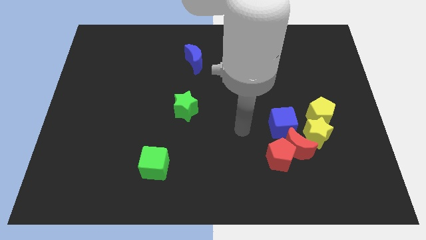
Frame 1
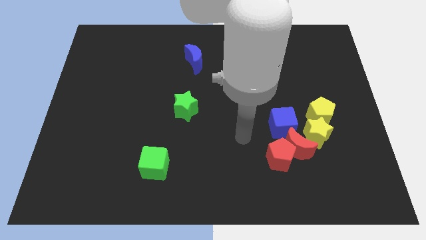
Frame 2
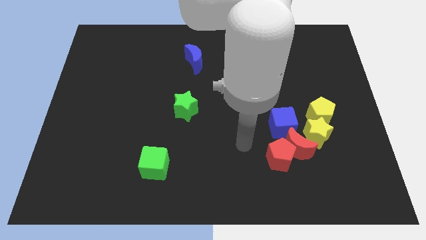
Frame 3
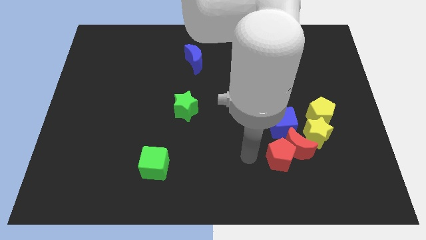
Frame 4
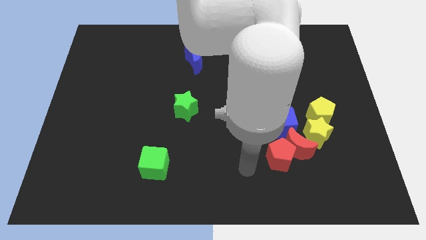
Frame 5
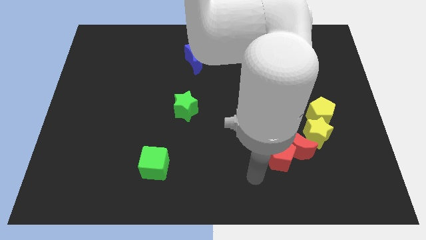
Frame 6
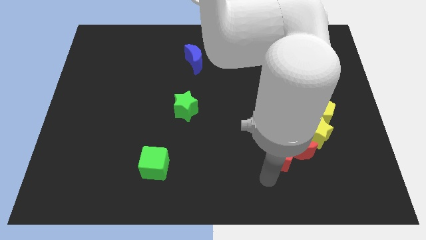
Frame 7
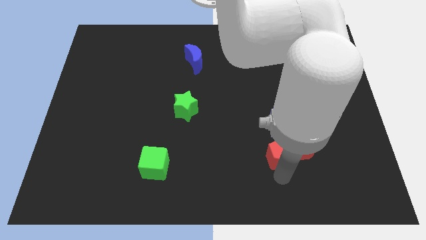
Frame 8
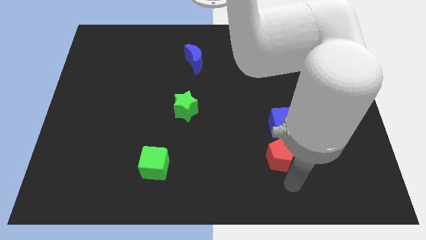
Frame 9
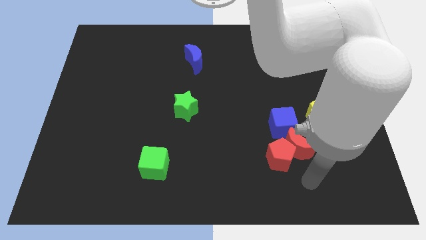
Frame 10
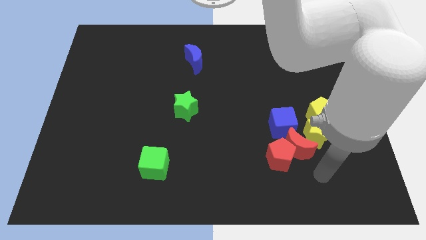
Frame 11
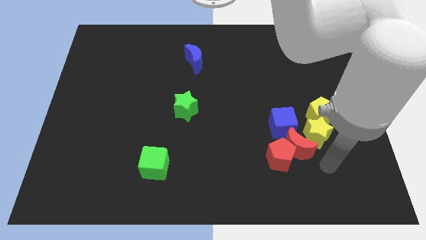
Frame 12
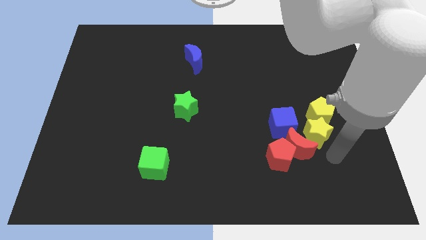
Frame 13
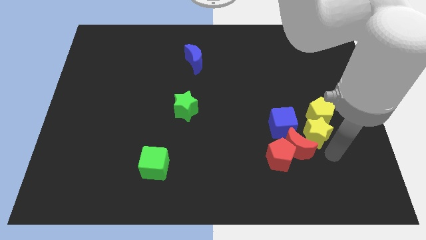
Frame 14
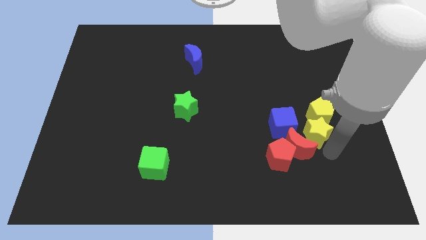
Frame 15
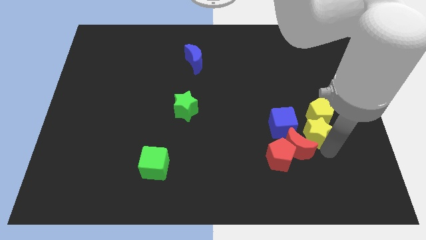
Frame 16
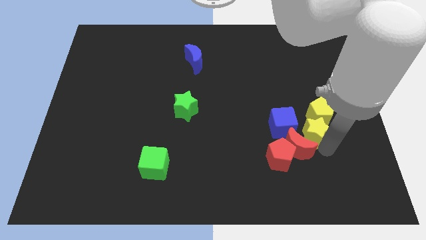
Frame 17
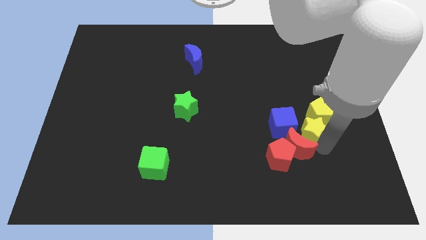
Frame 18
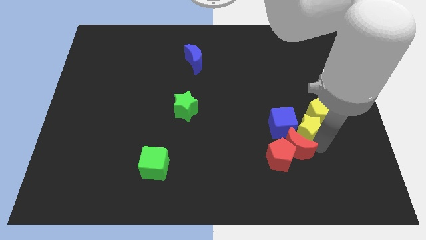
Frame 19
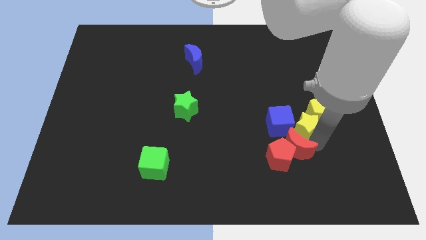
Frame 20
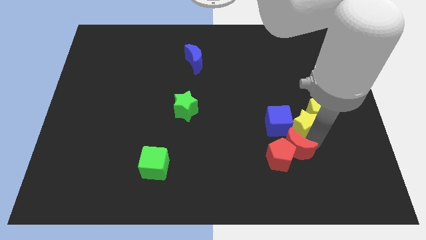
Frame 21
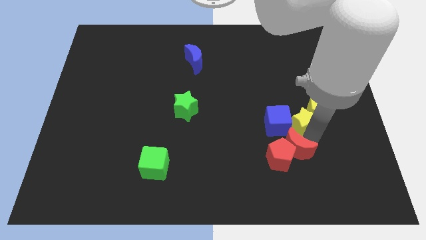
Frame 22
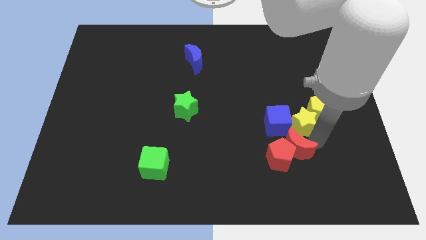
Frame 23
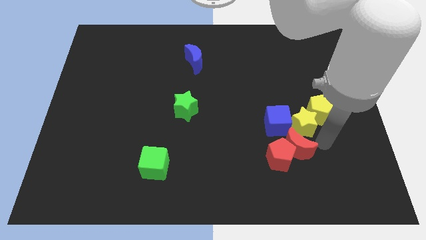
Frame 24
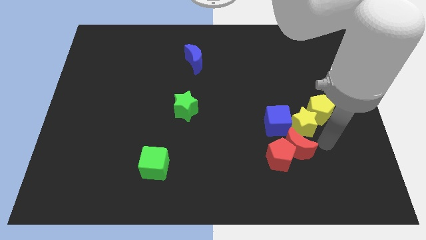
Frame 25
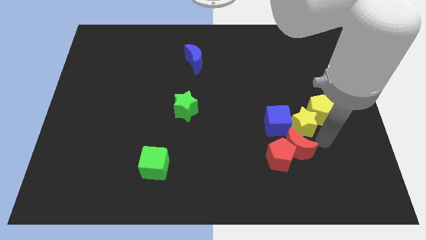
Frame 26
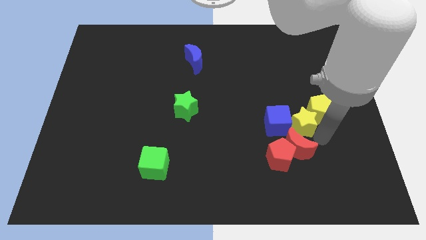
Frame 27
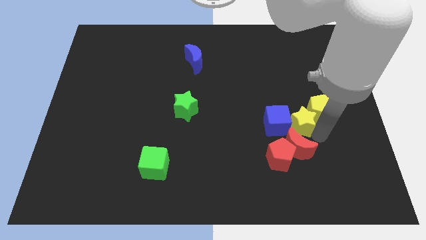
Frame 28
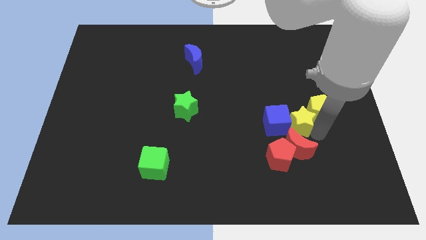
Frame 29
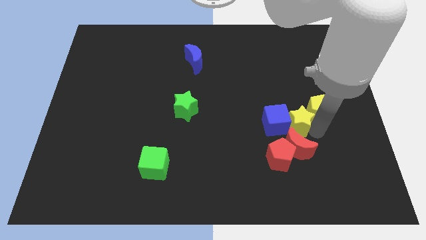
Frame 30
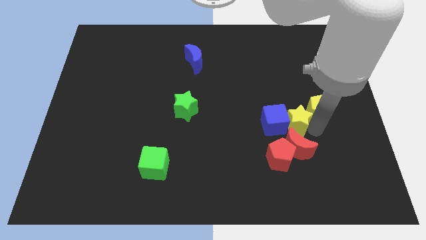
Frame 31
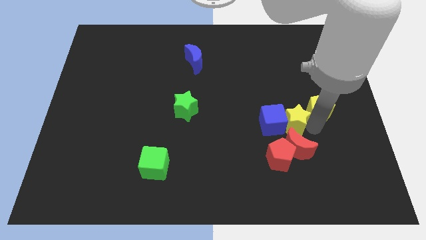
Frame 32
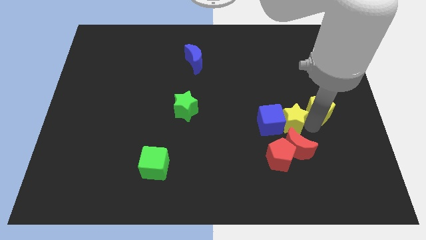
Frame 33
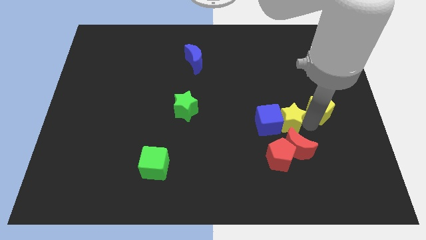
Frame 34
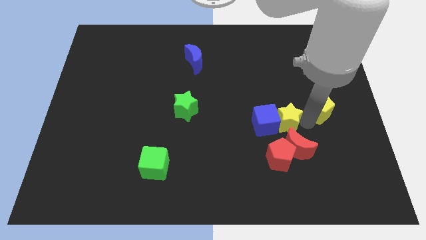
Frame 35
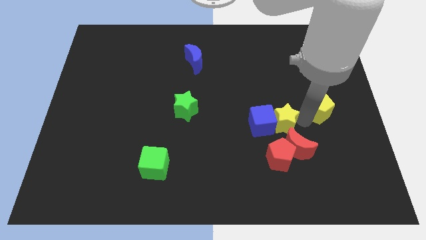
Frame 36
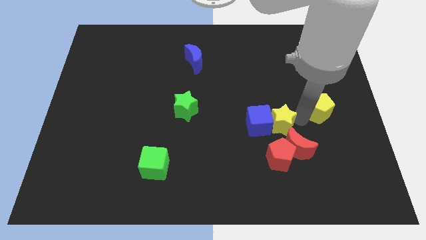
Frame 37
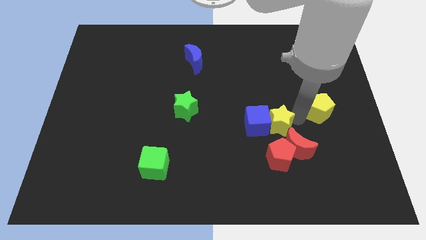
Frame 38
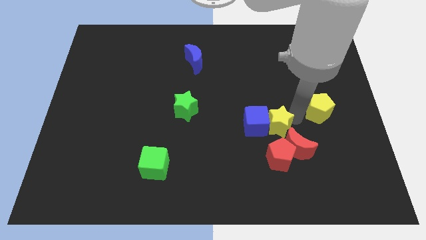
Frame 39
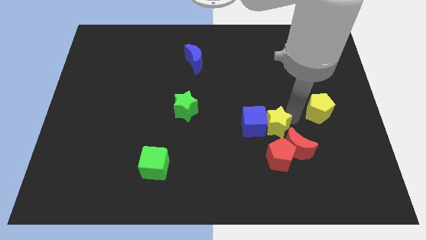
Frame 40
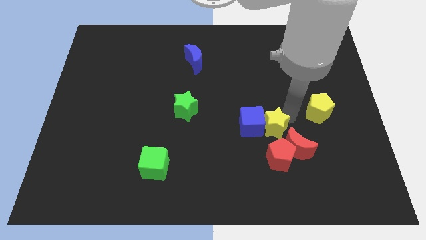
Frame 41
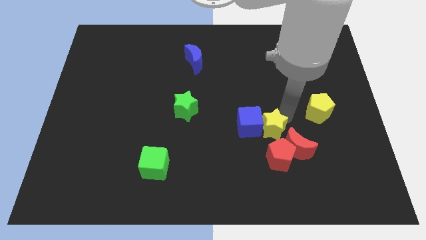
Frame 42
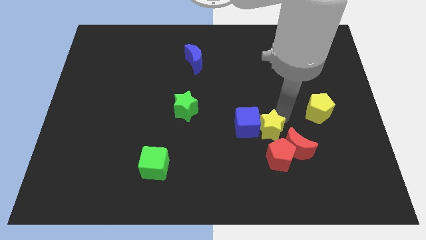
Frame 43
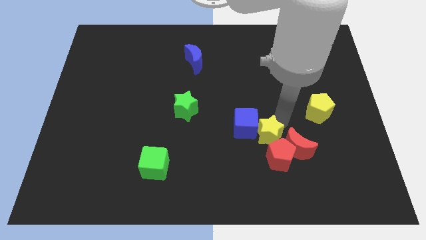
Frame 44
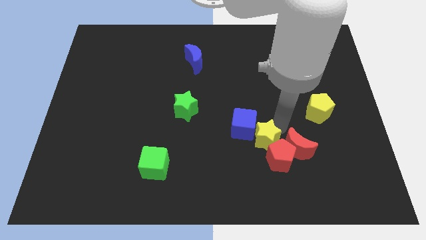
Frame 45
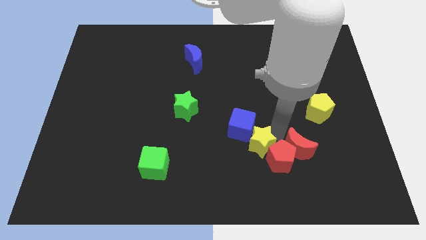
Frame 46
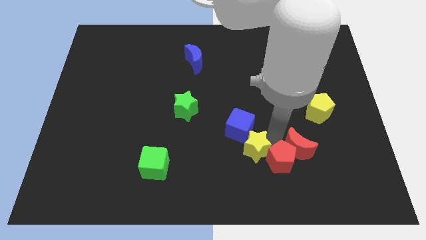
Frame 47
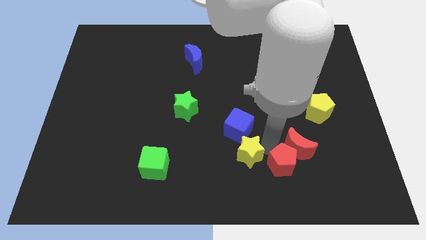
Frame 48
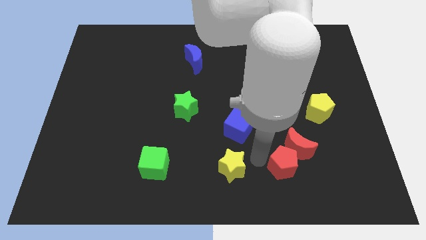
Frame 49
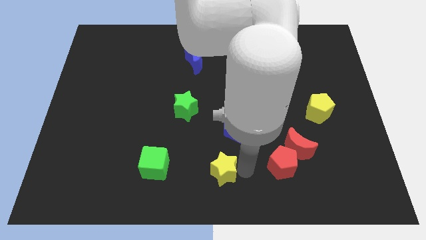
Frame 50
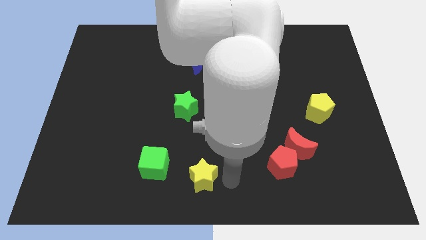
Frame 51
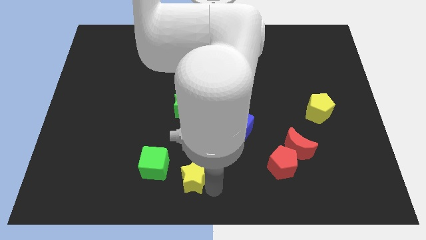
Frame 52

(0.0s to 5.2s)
move the yellow star left

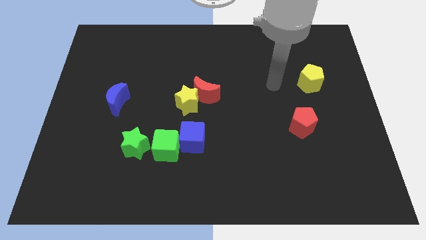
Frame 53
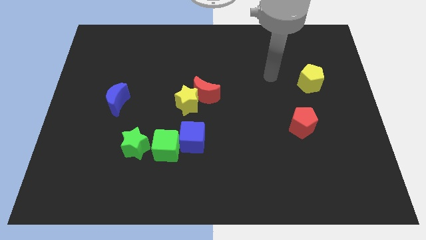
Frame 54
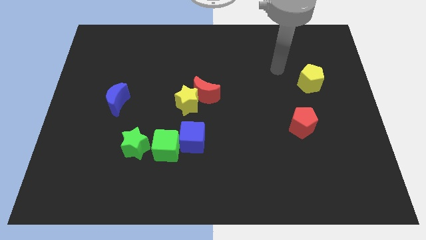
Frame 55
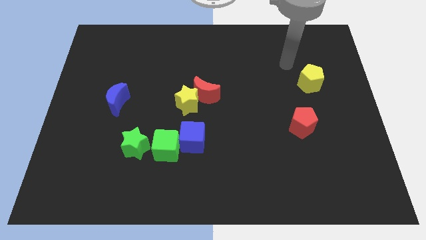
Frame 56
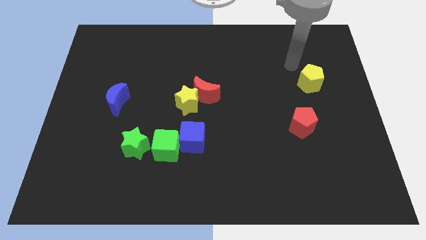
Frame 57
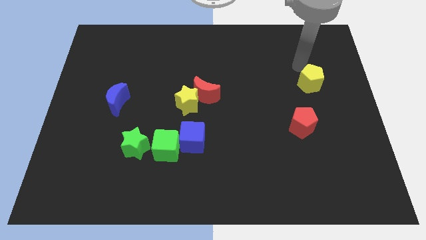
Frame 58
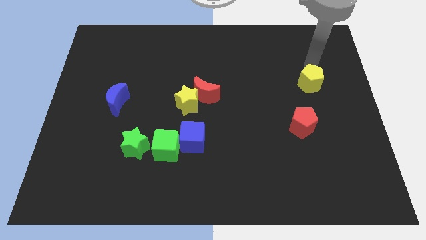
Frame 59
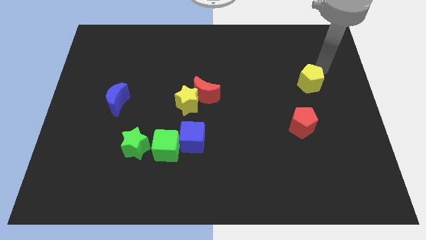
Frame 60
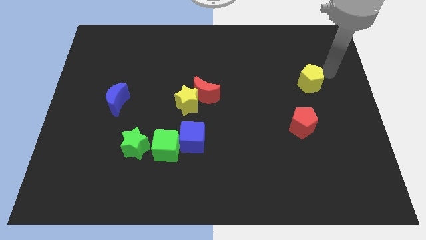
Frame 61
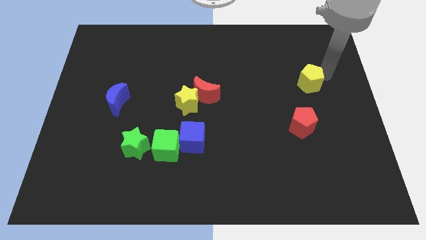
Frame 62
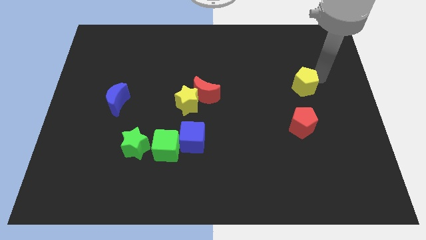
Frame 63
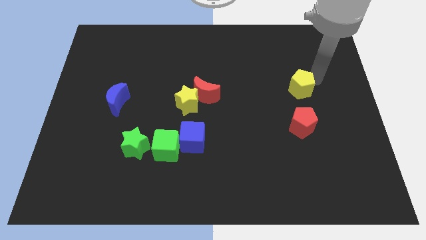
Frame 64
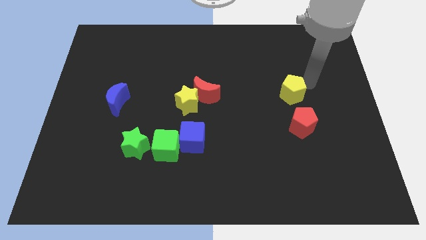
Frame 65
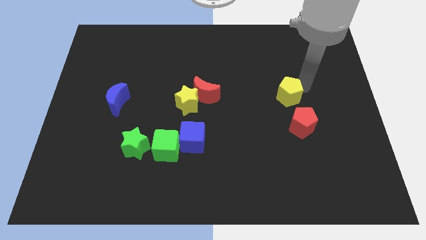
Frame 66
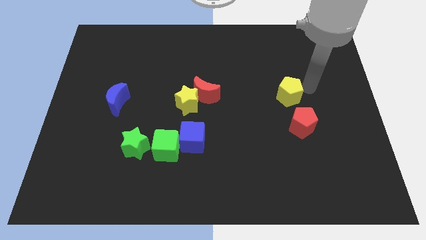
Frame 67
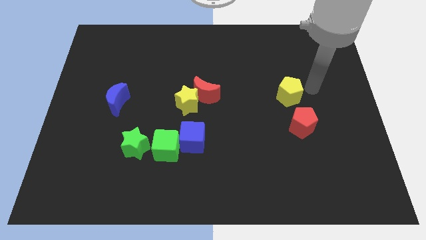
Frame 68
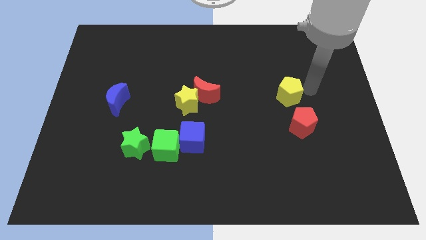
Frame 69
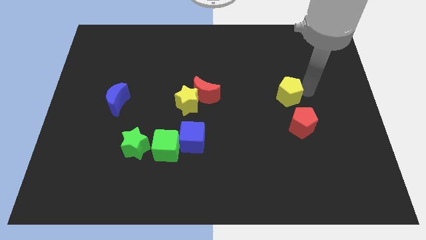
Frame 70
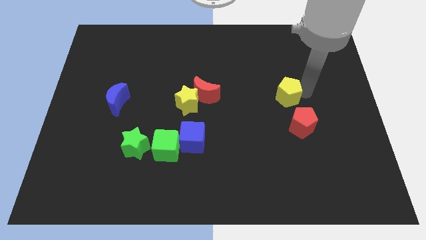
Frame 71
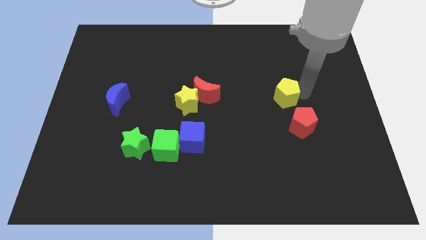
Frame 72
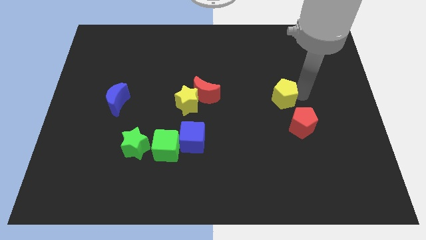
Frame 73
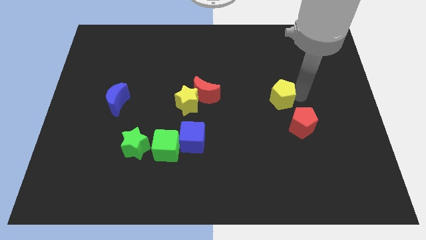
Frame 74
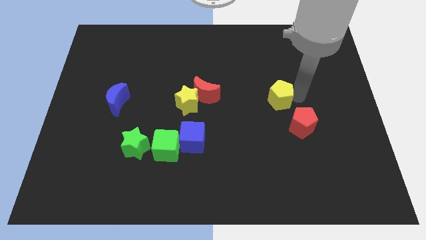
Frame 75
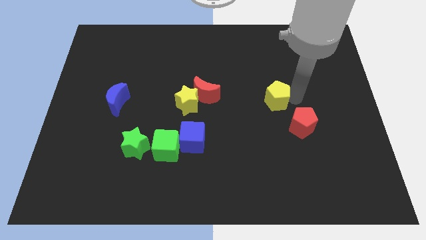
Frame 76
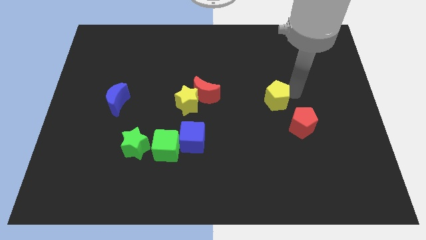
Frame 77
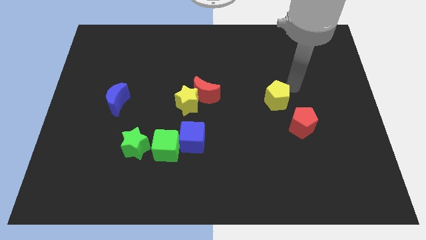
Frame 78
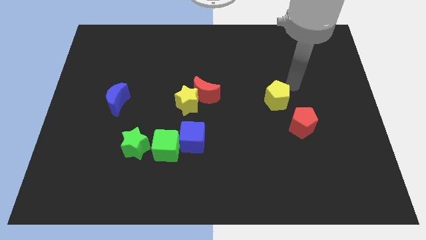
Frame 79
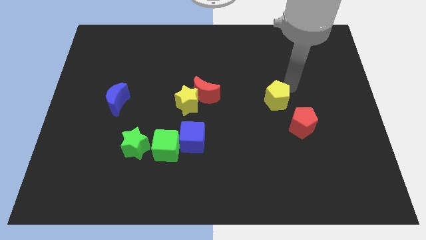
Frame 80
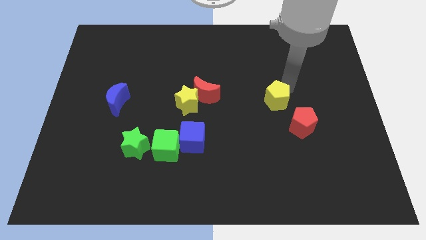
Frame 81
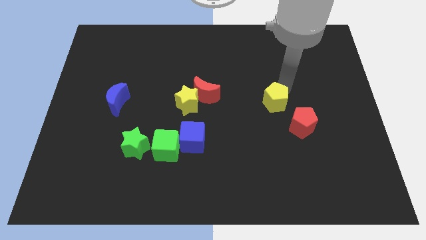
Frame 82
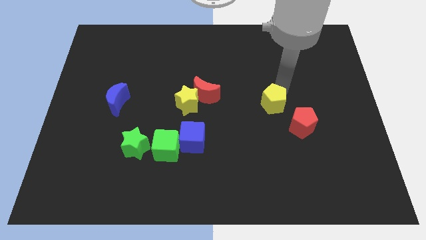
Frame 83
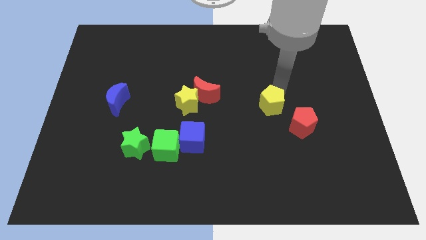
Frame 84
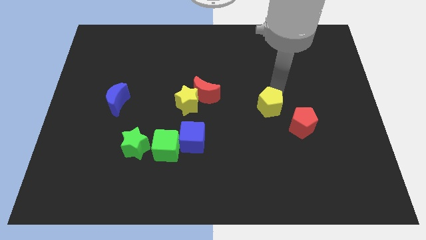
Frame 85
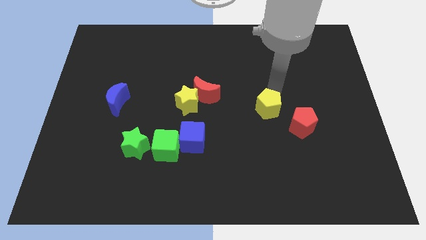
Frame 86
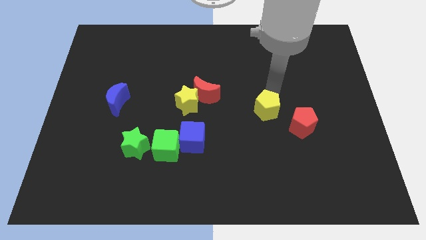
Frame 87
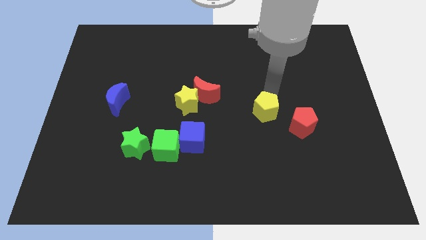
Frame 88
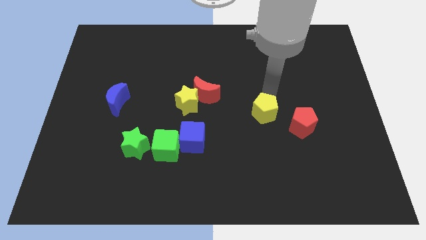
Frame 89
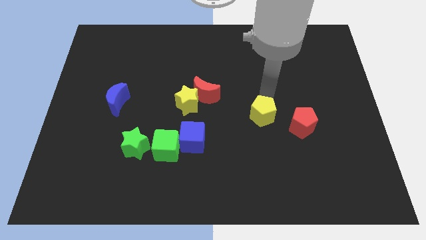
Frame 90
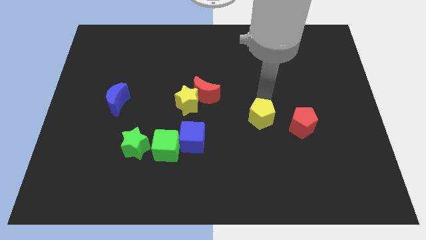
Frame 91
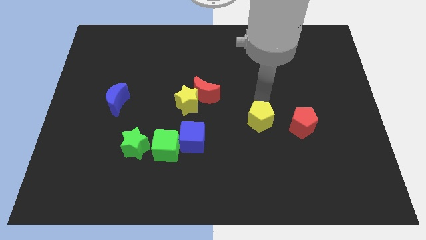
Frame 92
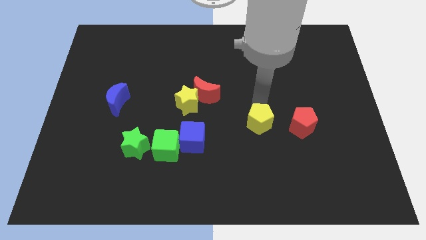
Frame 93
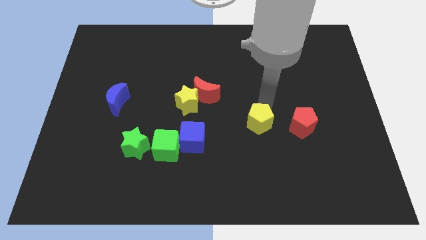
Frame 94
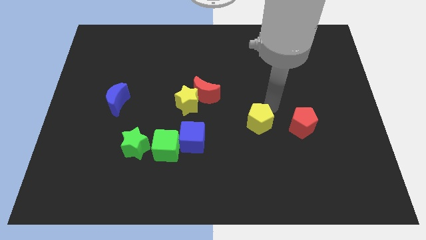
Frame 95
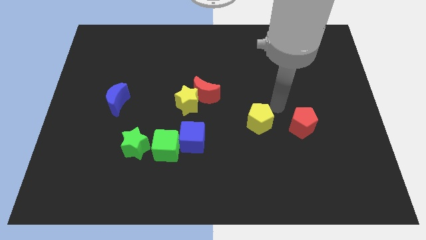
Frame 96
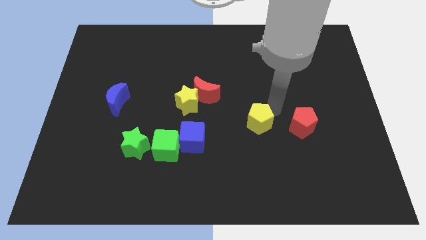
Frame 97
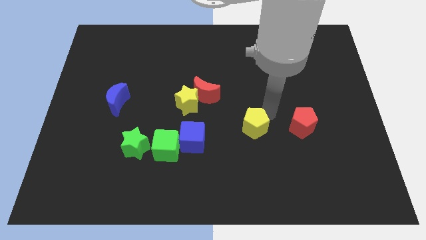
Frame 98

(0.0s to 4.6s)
slide the yellow pentagon down and then left
